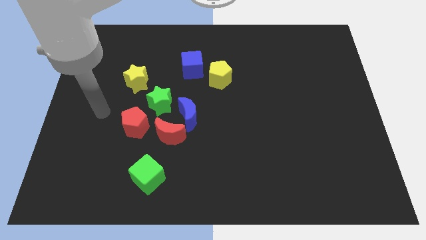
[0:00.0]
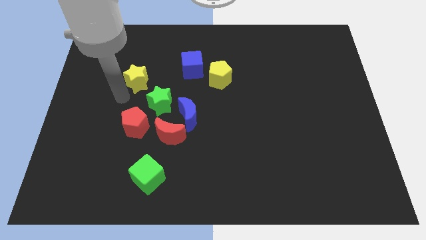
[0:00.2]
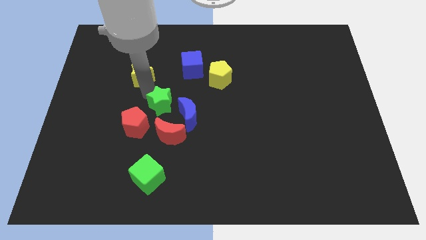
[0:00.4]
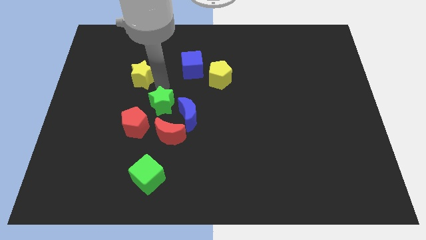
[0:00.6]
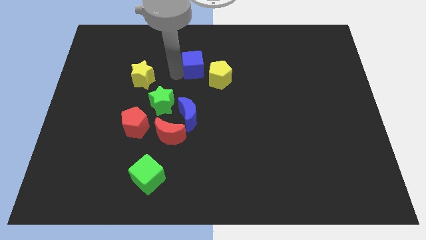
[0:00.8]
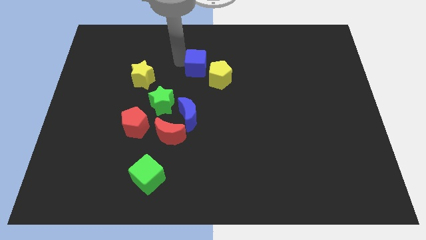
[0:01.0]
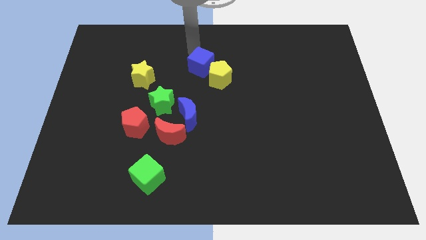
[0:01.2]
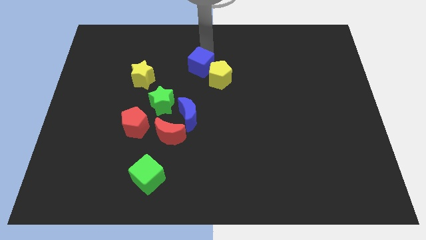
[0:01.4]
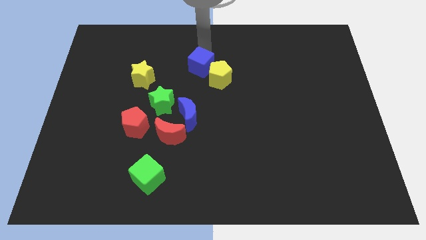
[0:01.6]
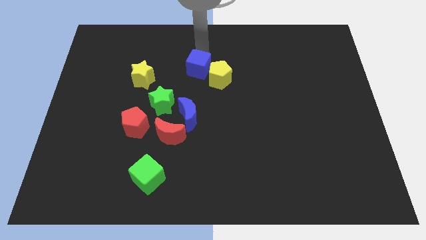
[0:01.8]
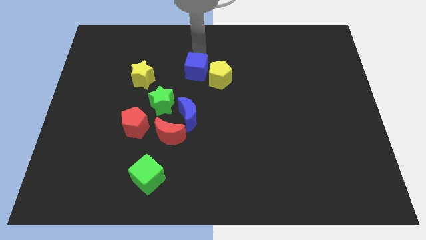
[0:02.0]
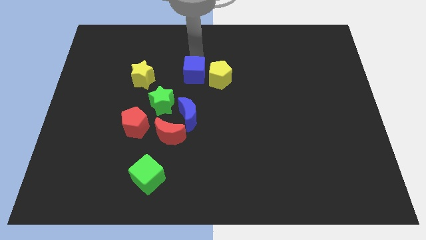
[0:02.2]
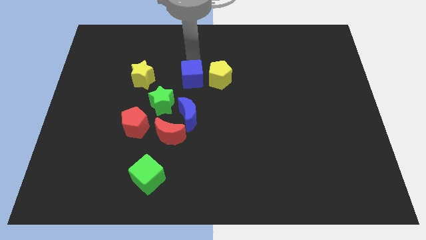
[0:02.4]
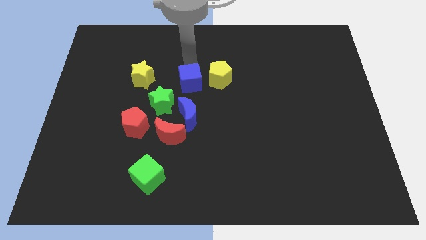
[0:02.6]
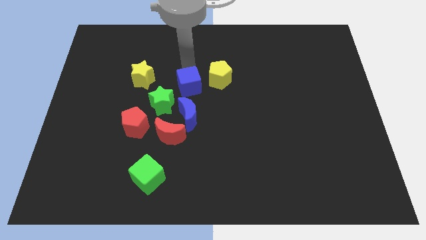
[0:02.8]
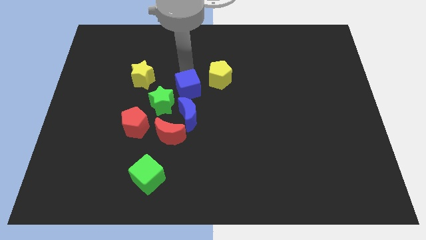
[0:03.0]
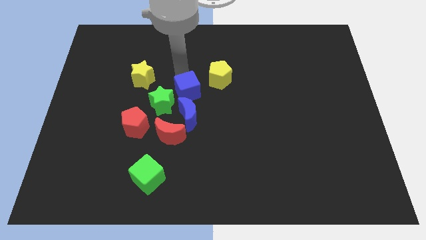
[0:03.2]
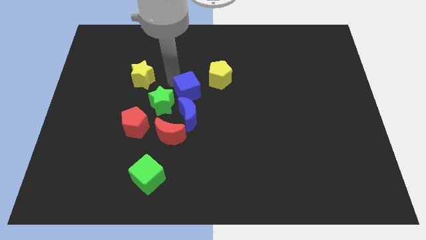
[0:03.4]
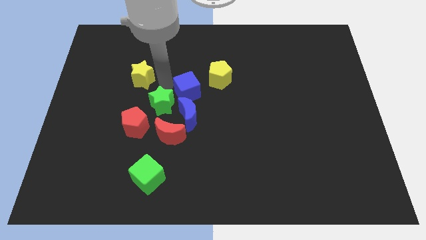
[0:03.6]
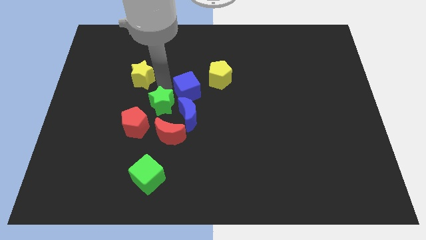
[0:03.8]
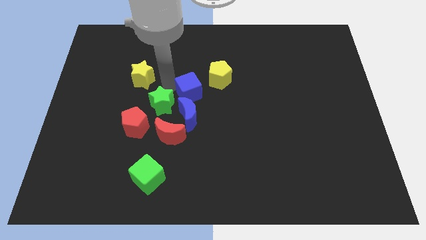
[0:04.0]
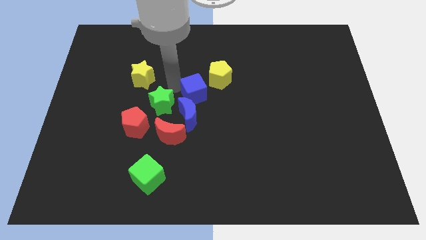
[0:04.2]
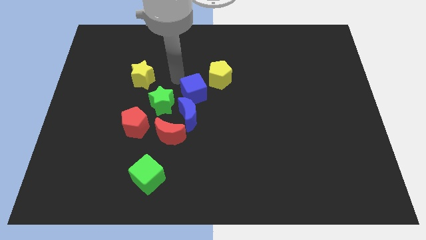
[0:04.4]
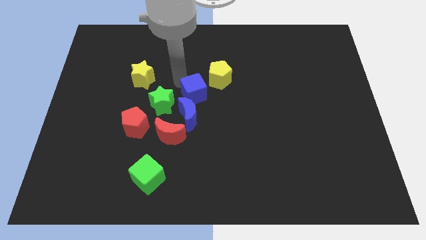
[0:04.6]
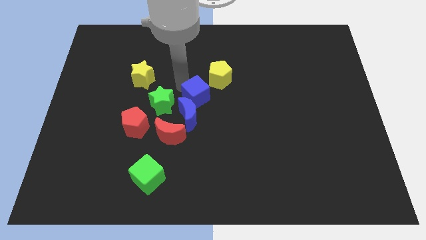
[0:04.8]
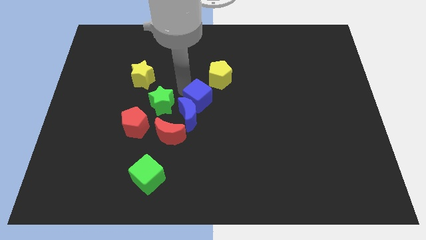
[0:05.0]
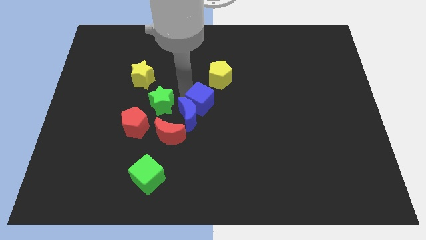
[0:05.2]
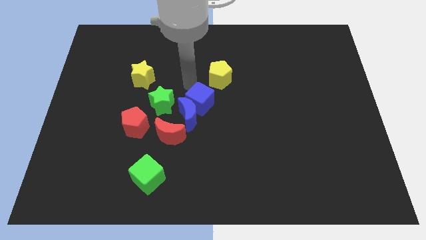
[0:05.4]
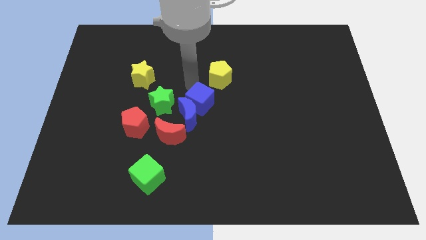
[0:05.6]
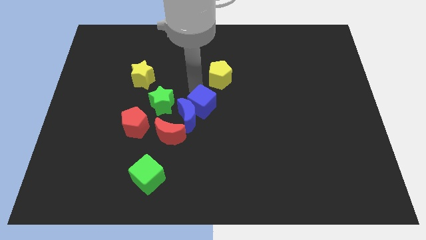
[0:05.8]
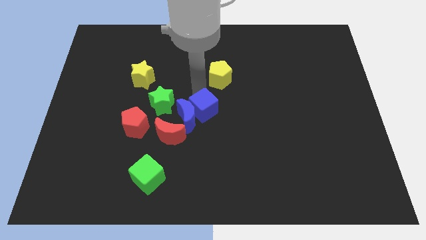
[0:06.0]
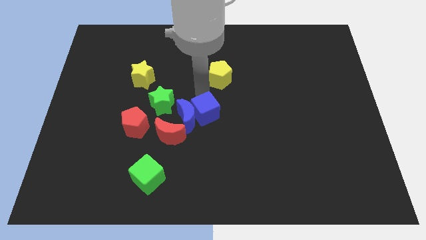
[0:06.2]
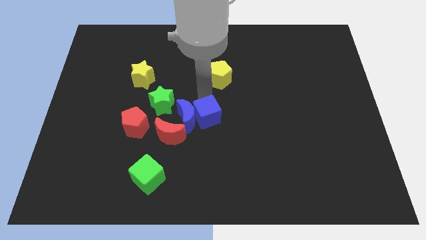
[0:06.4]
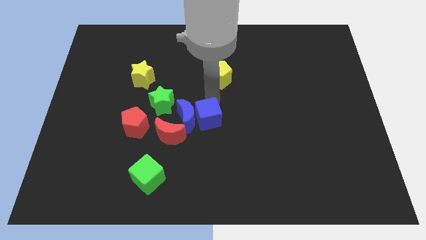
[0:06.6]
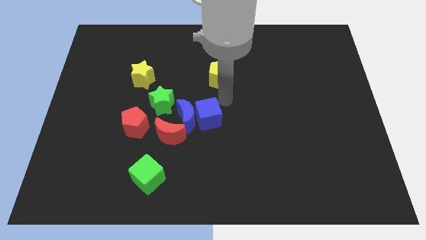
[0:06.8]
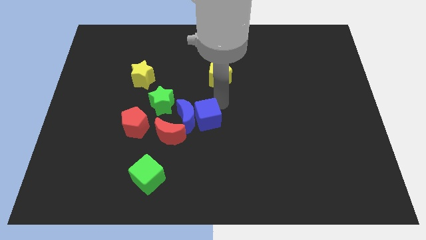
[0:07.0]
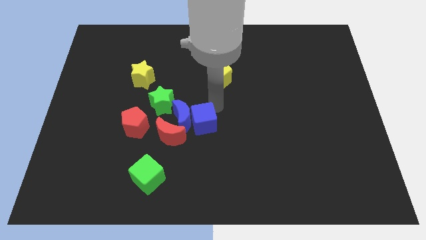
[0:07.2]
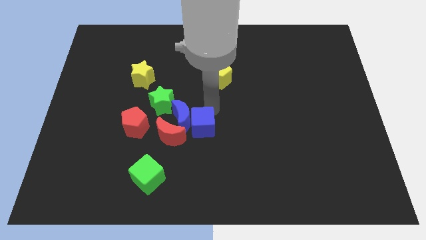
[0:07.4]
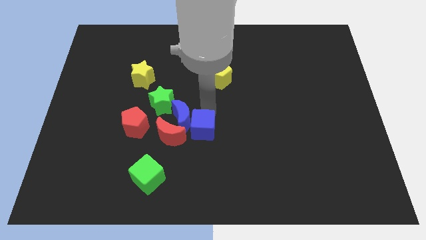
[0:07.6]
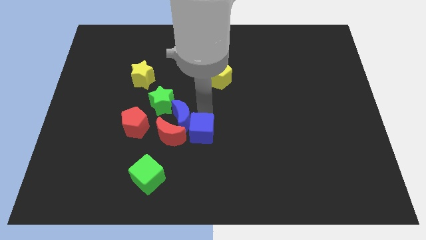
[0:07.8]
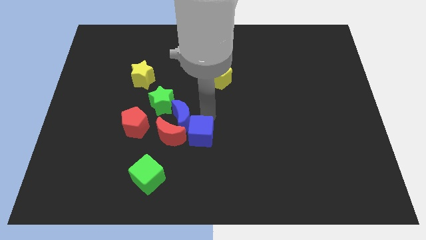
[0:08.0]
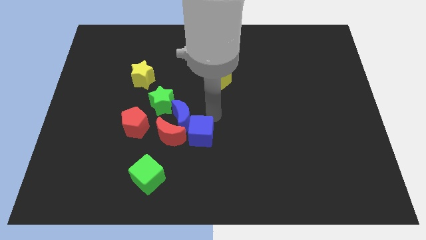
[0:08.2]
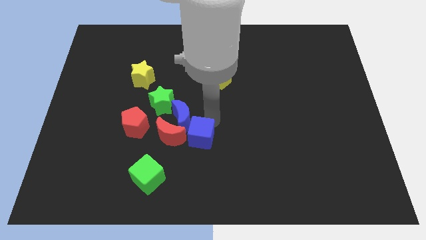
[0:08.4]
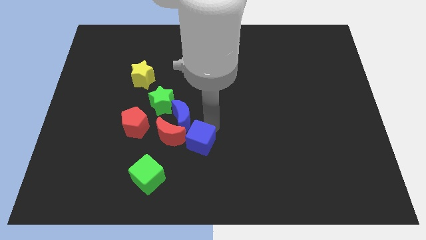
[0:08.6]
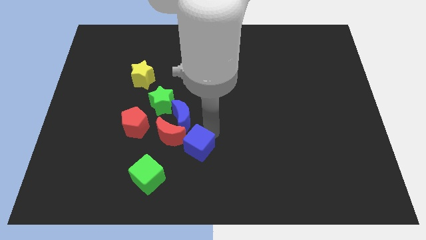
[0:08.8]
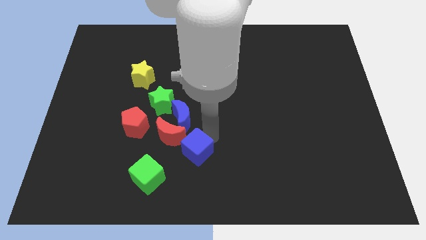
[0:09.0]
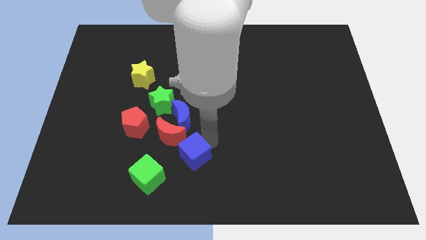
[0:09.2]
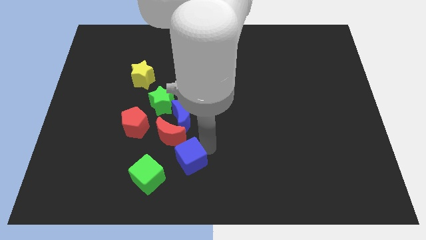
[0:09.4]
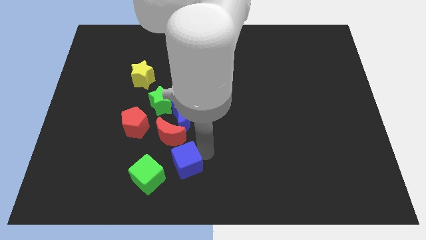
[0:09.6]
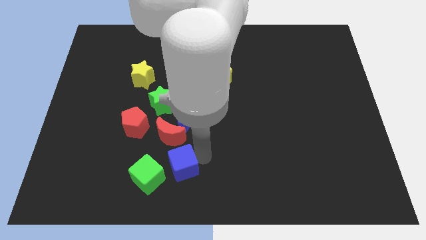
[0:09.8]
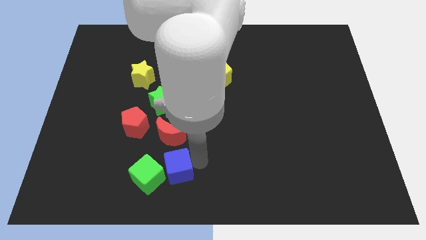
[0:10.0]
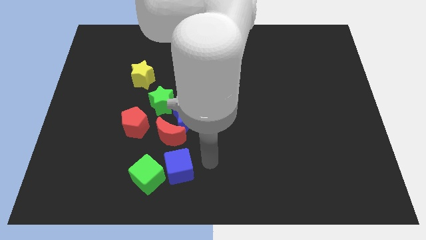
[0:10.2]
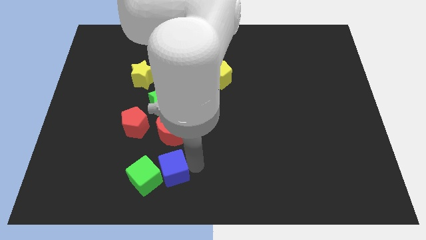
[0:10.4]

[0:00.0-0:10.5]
move the blue cube next to the green cube

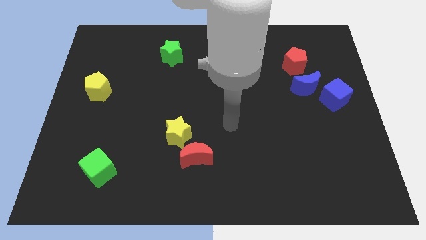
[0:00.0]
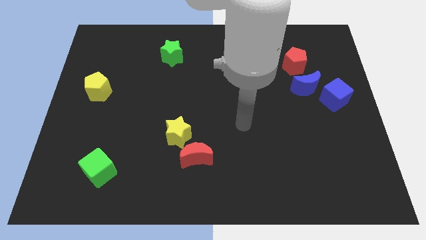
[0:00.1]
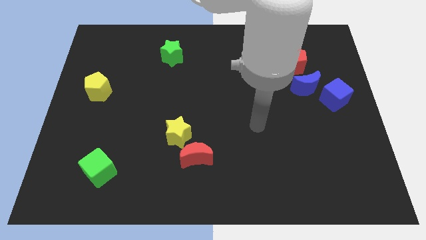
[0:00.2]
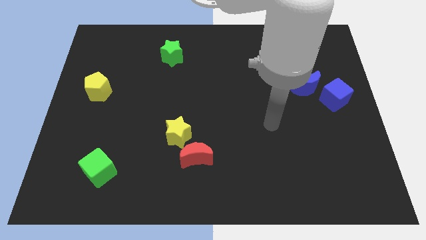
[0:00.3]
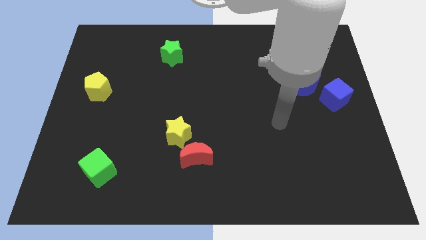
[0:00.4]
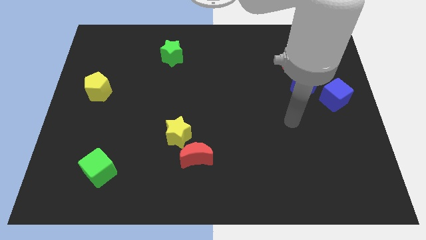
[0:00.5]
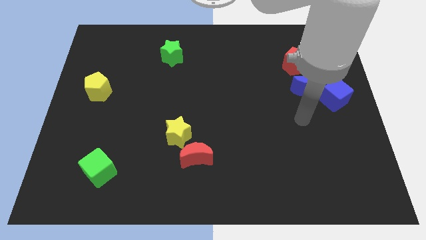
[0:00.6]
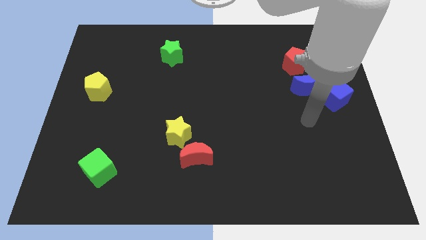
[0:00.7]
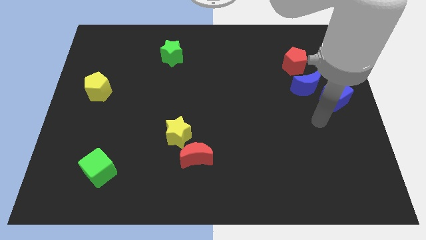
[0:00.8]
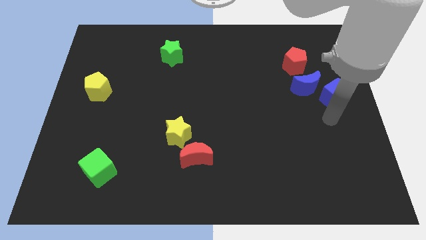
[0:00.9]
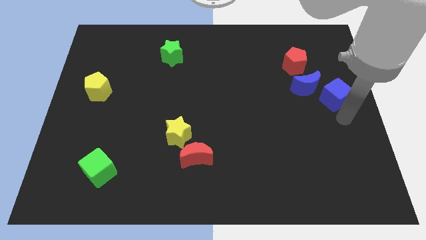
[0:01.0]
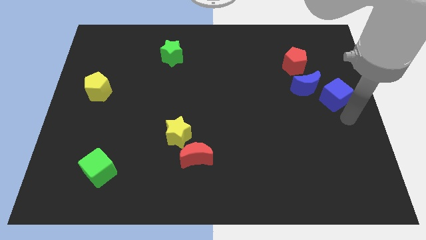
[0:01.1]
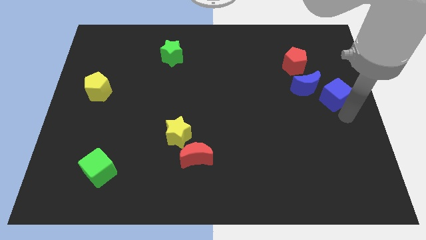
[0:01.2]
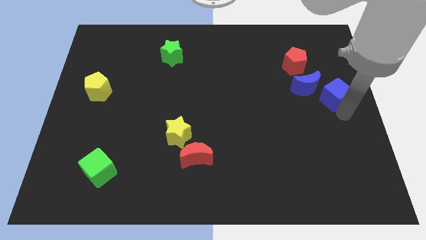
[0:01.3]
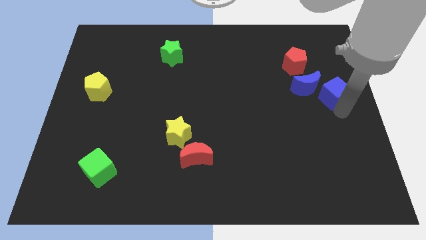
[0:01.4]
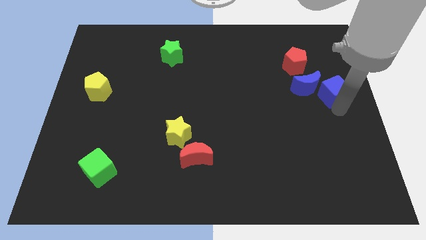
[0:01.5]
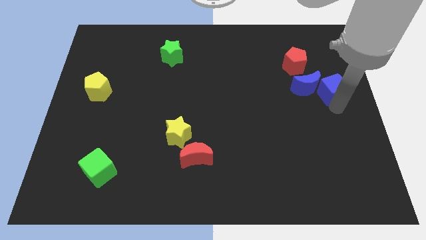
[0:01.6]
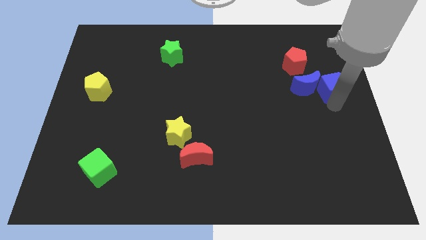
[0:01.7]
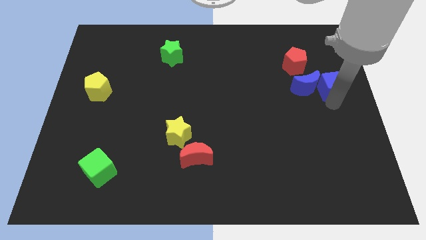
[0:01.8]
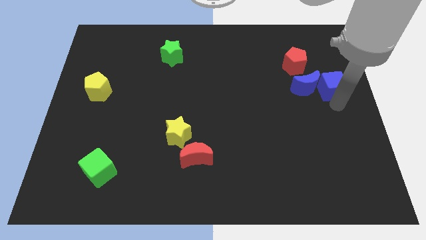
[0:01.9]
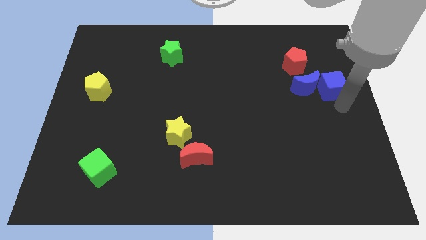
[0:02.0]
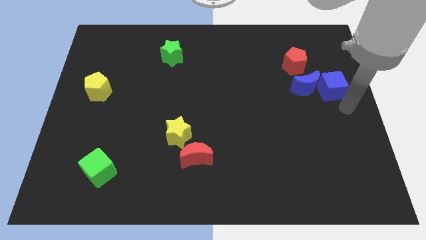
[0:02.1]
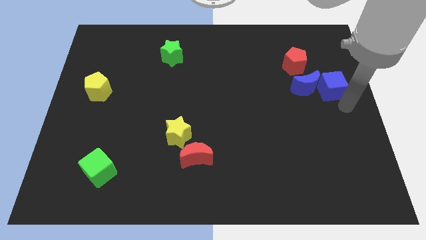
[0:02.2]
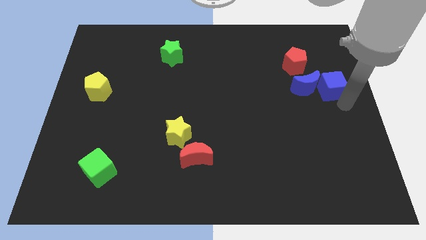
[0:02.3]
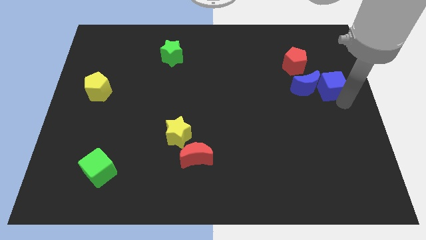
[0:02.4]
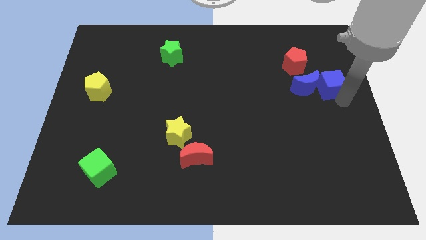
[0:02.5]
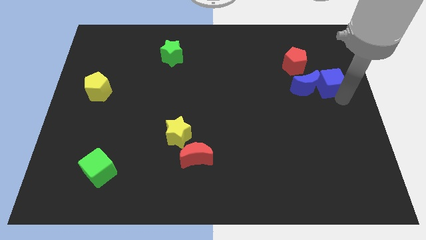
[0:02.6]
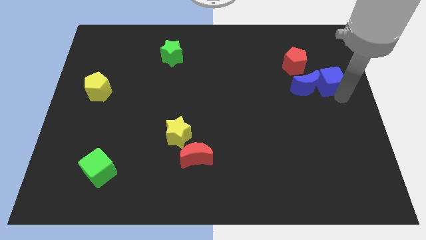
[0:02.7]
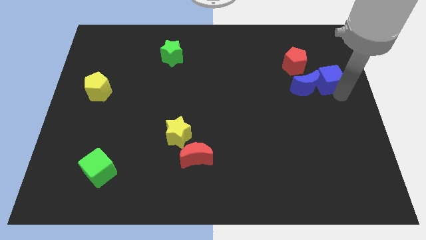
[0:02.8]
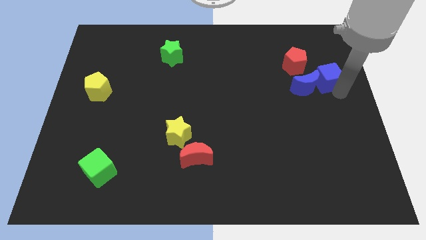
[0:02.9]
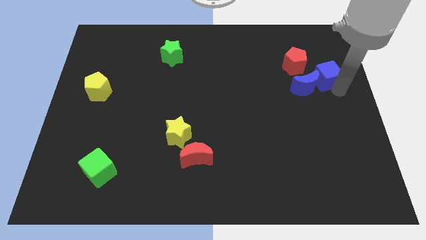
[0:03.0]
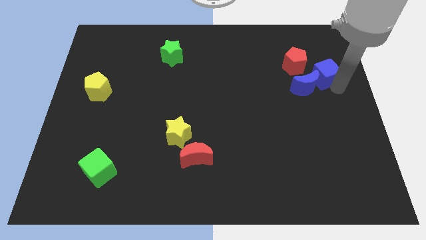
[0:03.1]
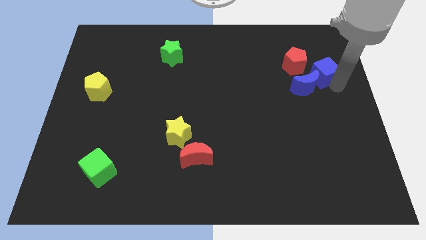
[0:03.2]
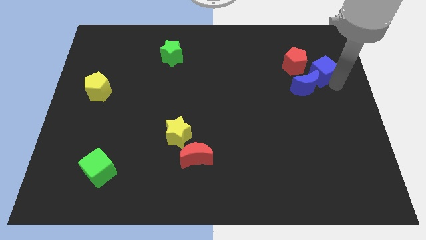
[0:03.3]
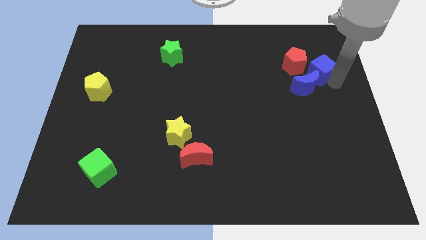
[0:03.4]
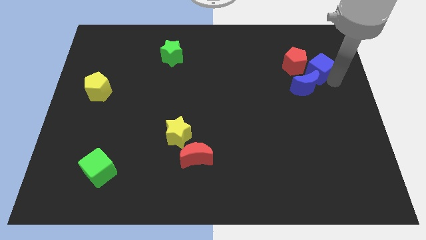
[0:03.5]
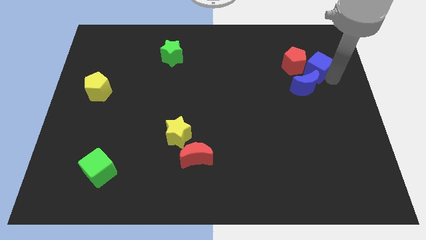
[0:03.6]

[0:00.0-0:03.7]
push the blue cube close to the red pentagon
